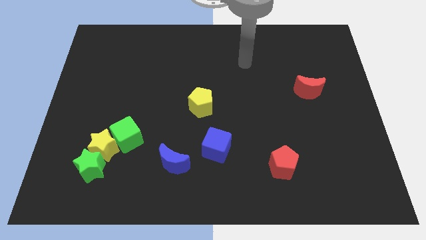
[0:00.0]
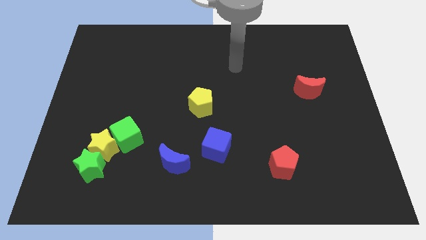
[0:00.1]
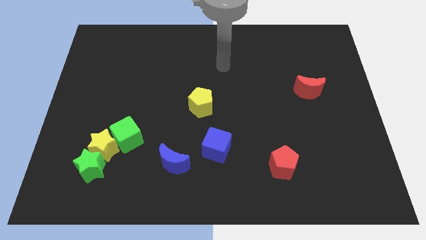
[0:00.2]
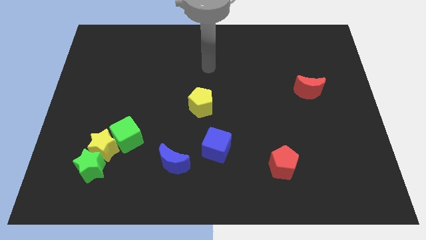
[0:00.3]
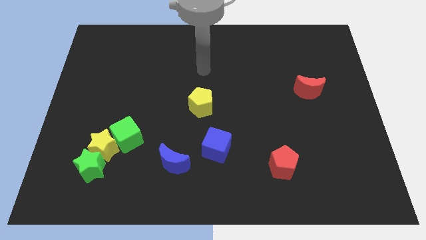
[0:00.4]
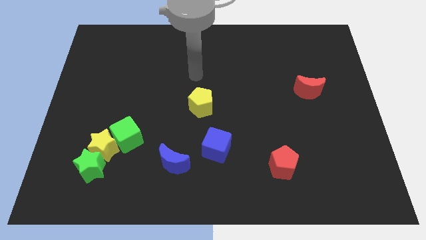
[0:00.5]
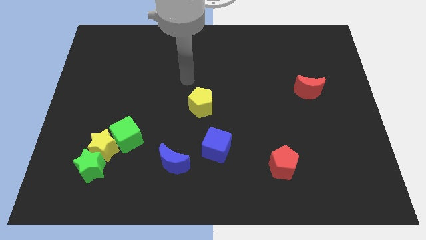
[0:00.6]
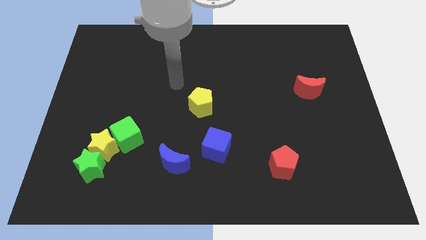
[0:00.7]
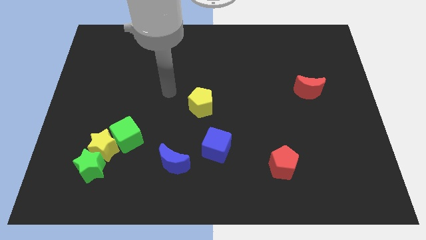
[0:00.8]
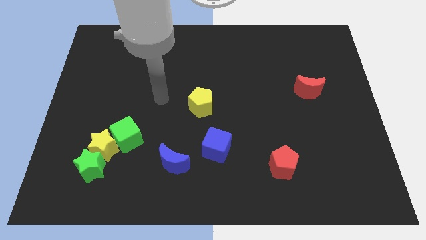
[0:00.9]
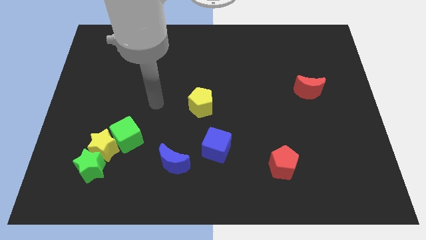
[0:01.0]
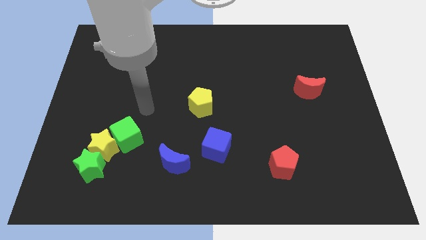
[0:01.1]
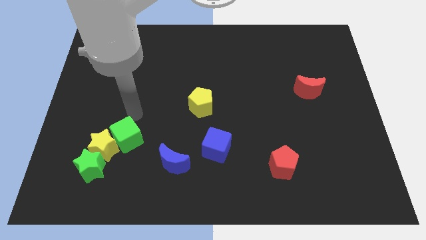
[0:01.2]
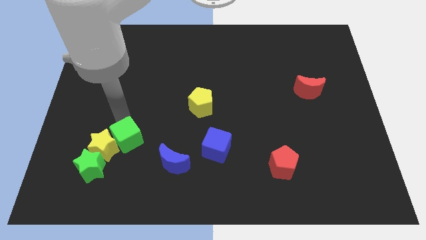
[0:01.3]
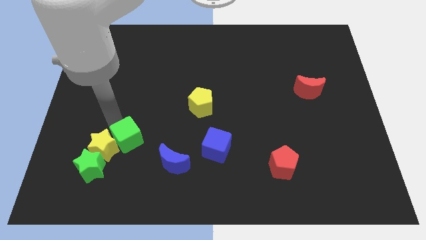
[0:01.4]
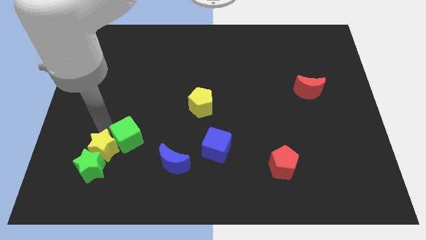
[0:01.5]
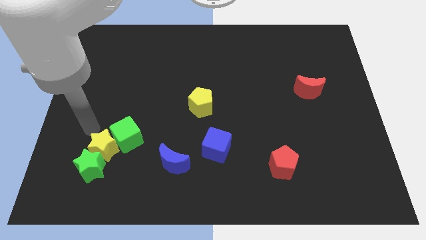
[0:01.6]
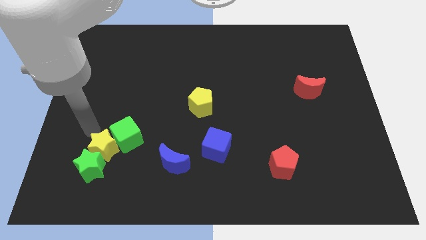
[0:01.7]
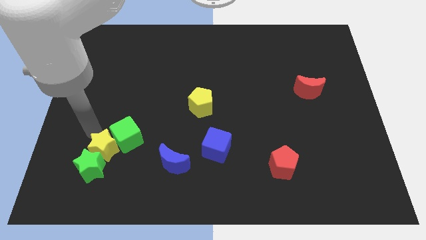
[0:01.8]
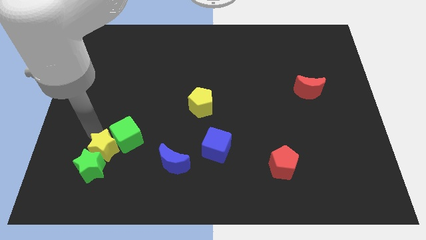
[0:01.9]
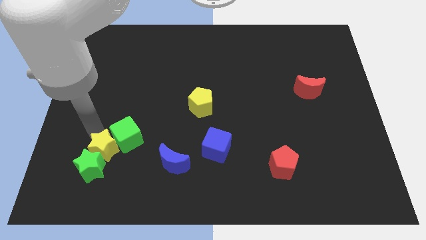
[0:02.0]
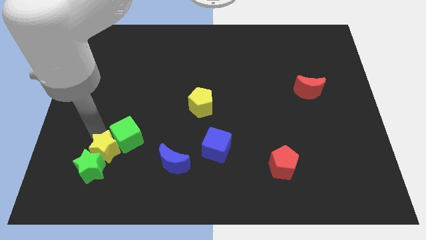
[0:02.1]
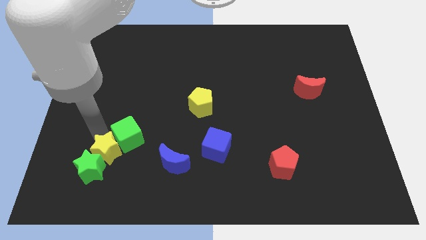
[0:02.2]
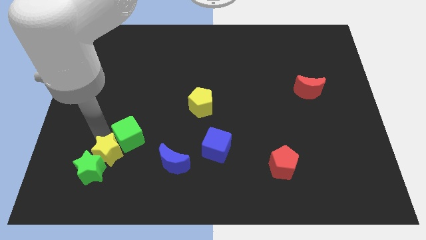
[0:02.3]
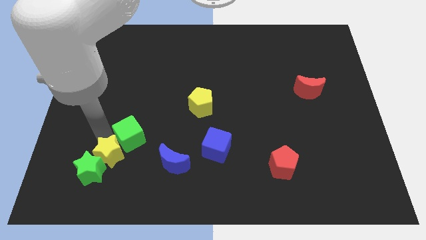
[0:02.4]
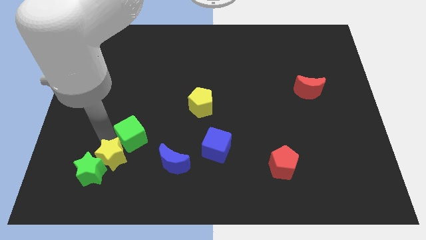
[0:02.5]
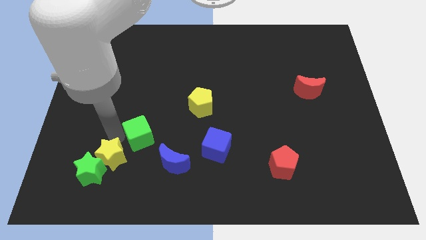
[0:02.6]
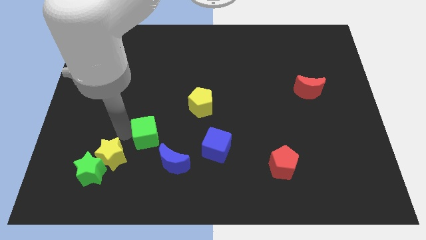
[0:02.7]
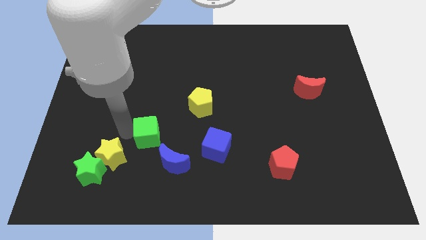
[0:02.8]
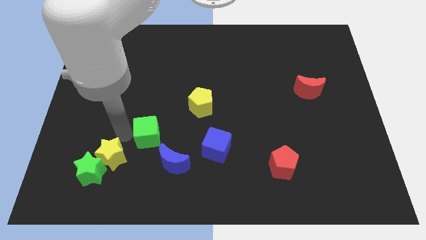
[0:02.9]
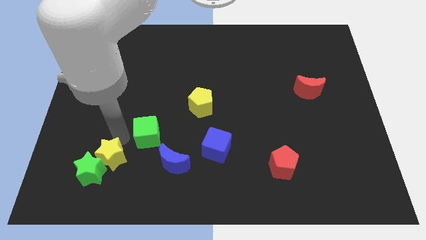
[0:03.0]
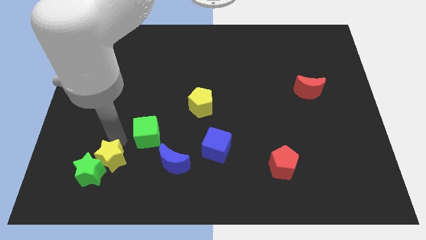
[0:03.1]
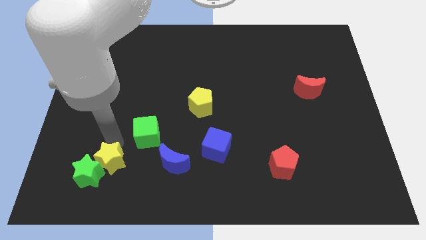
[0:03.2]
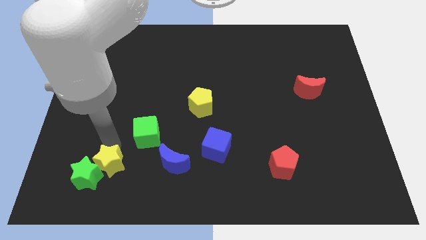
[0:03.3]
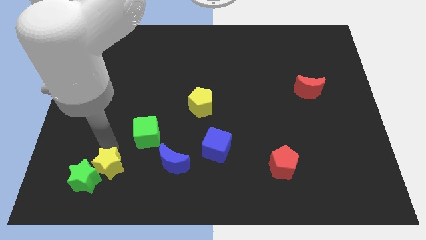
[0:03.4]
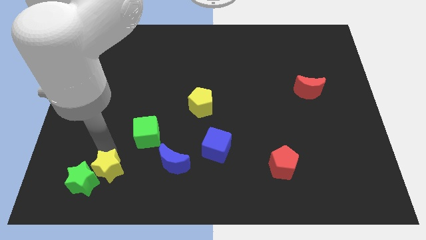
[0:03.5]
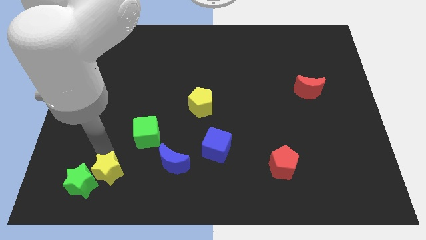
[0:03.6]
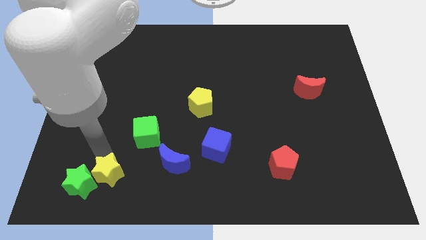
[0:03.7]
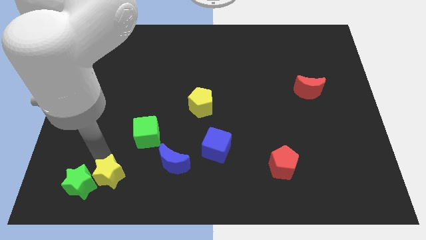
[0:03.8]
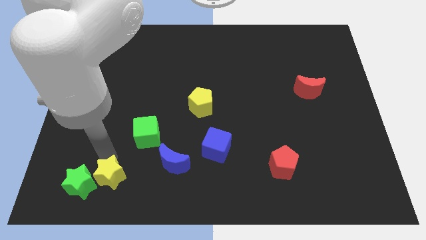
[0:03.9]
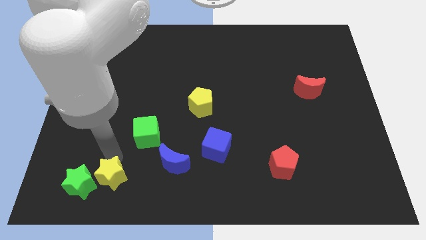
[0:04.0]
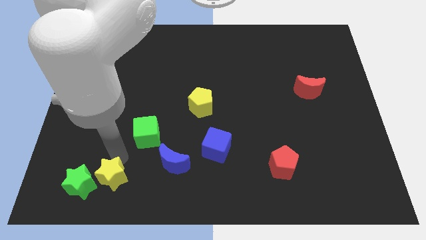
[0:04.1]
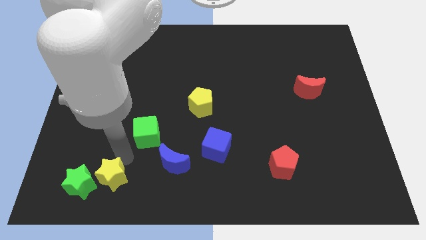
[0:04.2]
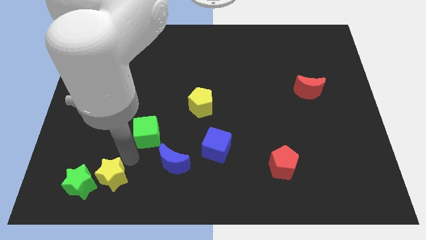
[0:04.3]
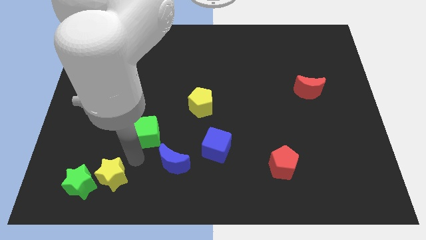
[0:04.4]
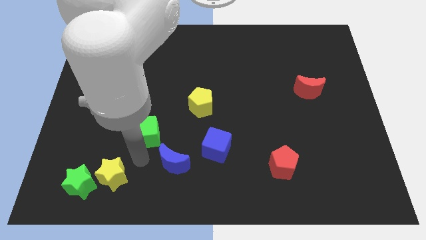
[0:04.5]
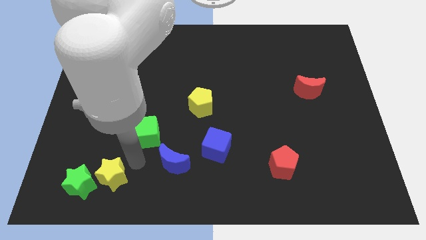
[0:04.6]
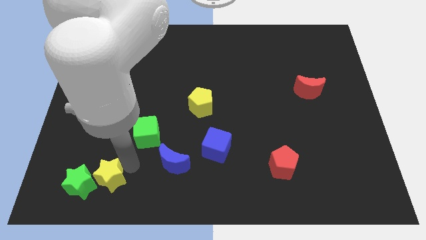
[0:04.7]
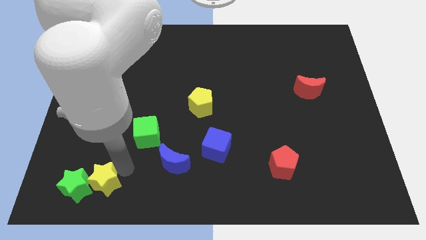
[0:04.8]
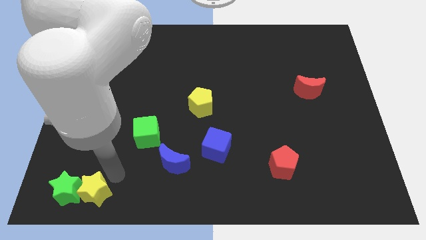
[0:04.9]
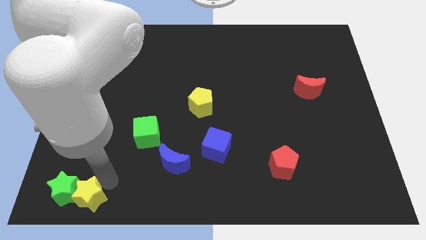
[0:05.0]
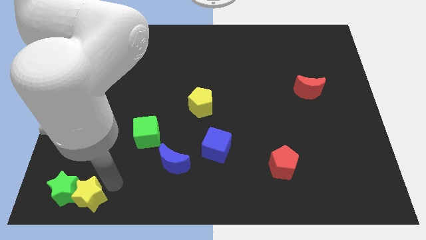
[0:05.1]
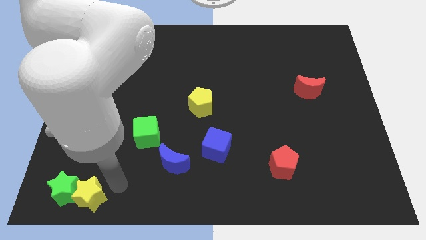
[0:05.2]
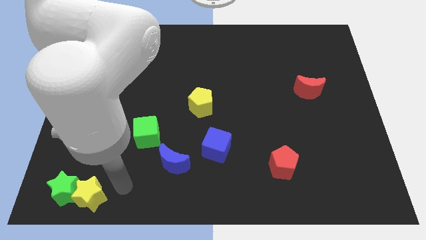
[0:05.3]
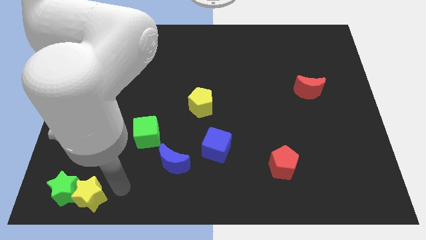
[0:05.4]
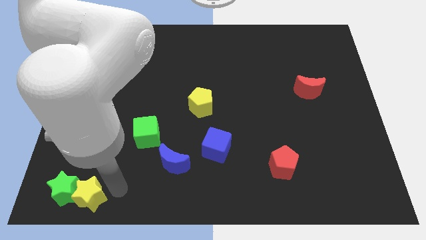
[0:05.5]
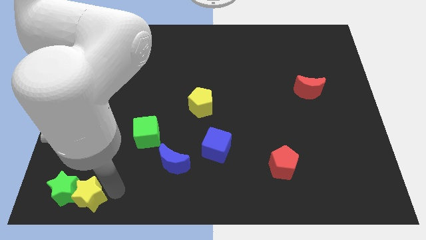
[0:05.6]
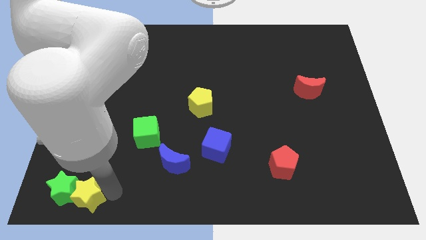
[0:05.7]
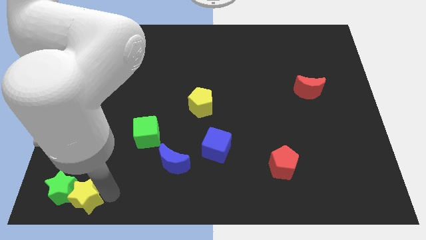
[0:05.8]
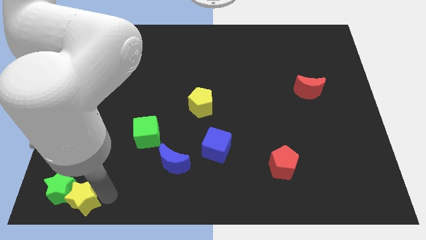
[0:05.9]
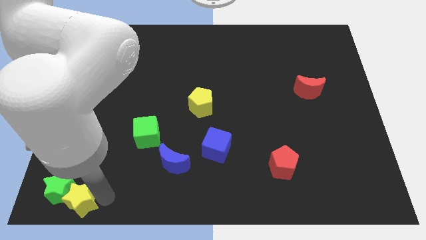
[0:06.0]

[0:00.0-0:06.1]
put the yellow star to the lower left corner

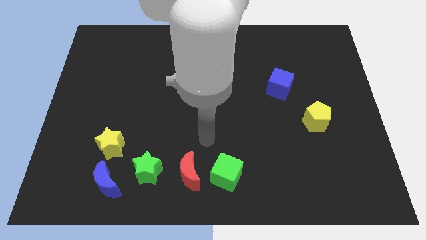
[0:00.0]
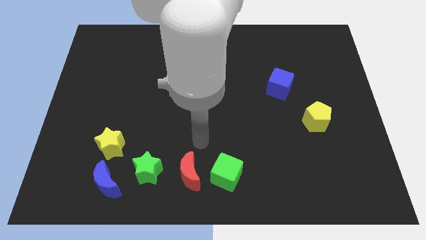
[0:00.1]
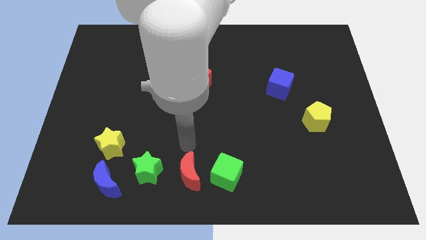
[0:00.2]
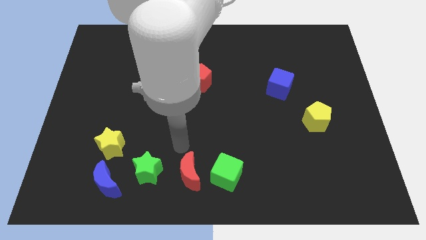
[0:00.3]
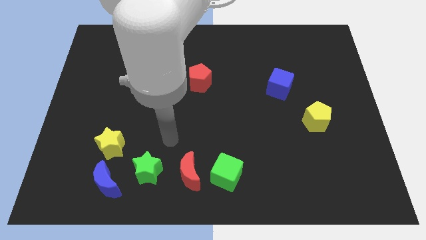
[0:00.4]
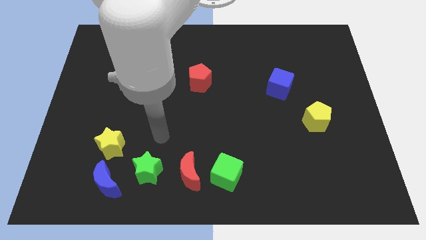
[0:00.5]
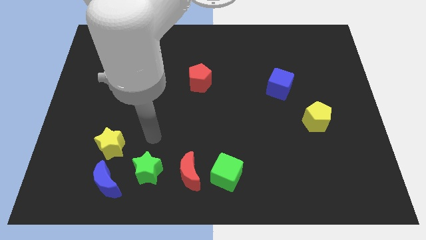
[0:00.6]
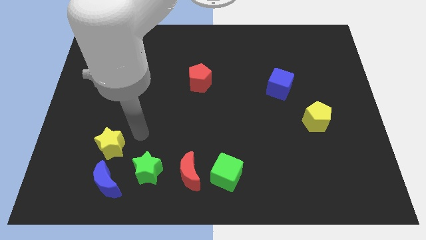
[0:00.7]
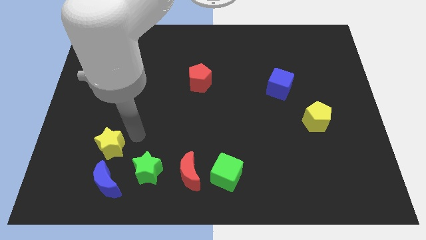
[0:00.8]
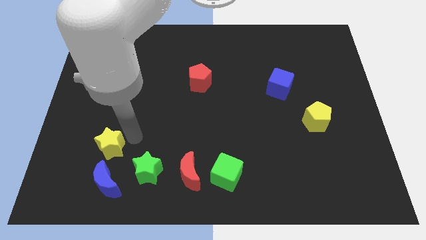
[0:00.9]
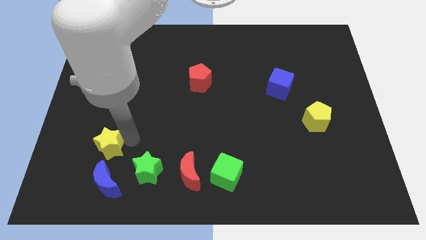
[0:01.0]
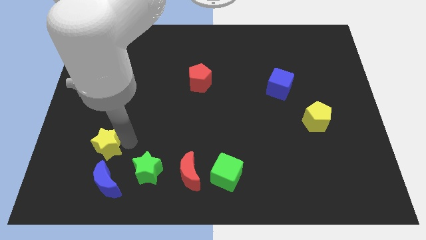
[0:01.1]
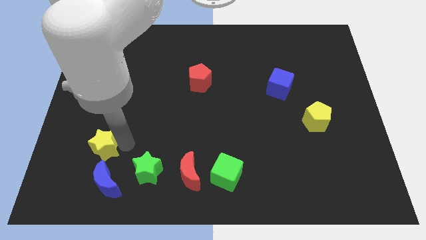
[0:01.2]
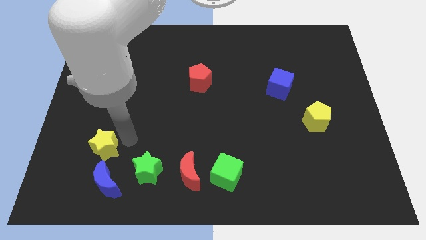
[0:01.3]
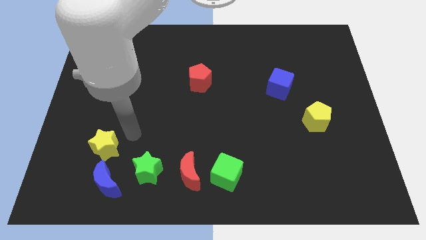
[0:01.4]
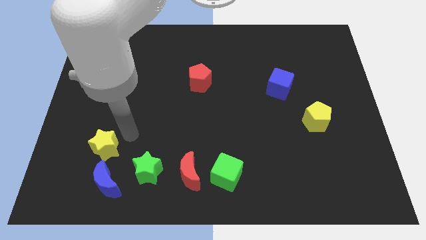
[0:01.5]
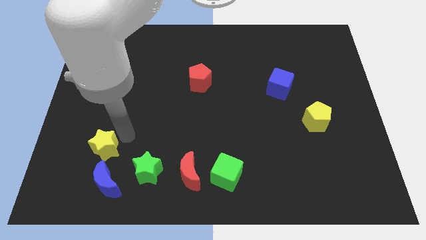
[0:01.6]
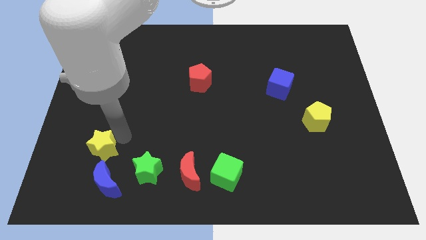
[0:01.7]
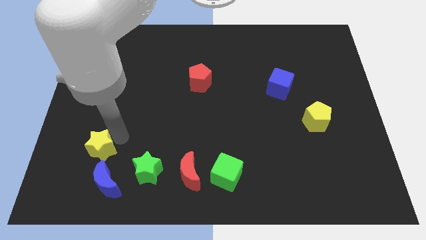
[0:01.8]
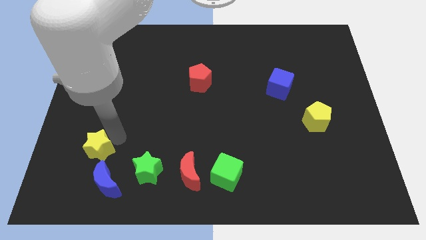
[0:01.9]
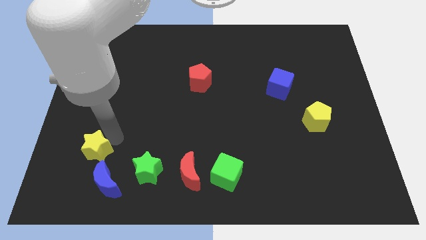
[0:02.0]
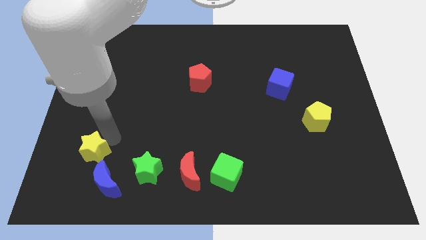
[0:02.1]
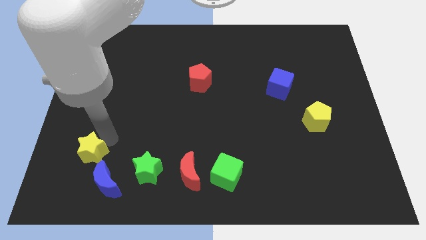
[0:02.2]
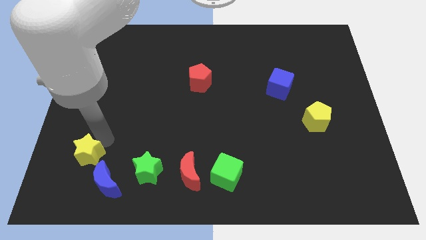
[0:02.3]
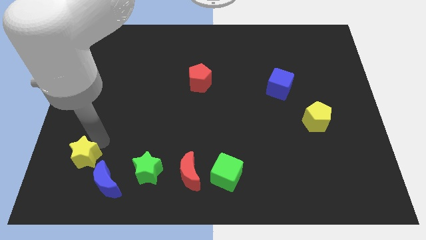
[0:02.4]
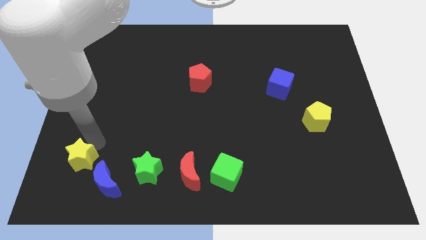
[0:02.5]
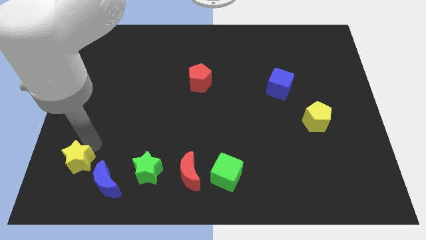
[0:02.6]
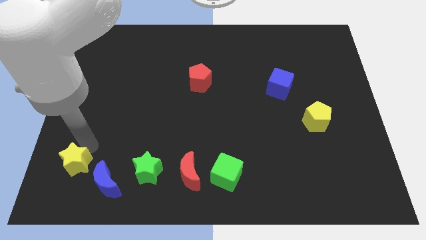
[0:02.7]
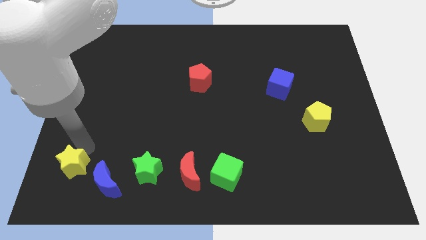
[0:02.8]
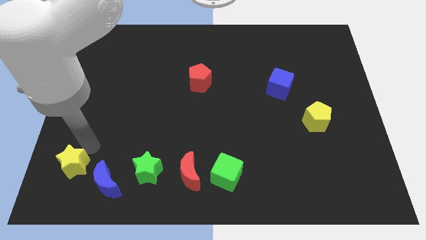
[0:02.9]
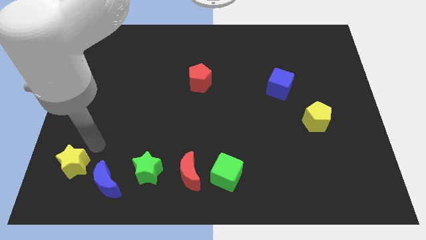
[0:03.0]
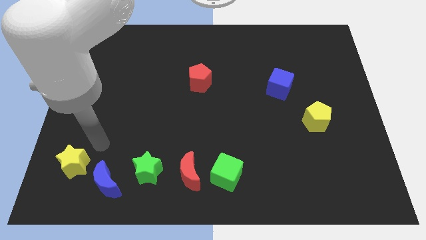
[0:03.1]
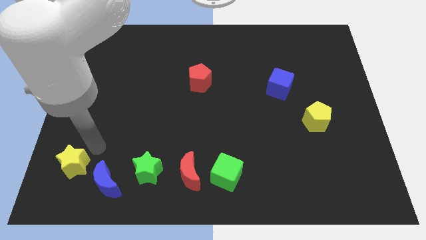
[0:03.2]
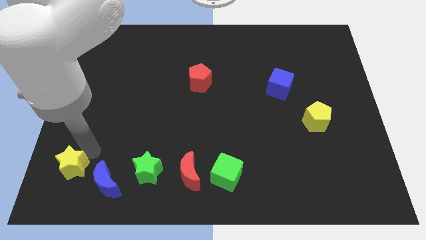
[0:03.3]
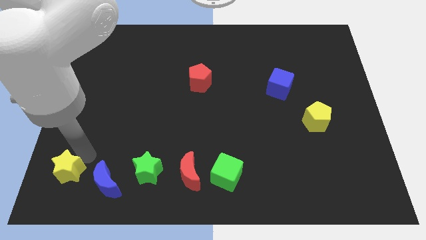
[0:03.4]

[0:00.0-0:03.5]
put the yellow star to the bottom left
